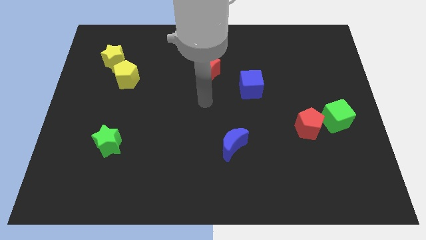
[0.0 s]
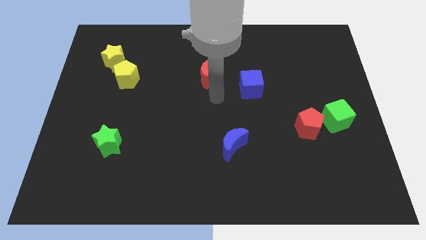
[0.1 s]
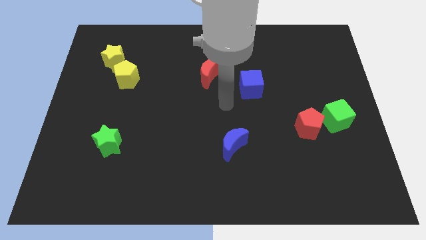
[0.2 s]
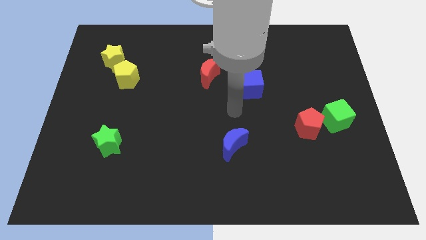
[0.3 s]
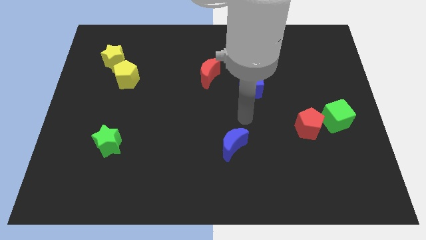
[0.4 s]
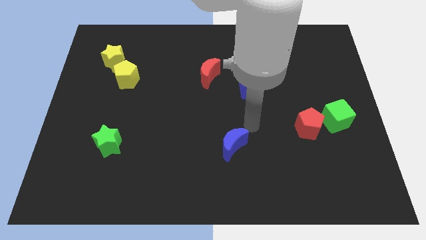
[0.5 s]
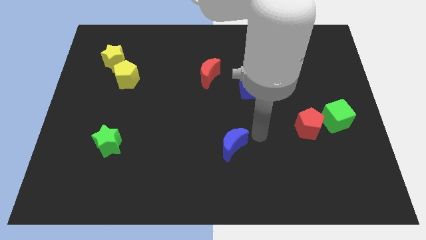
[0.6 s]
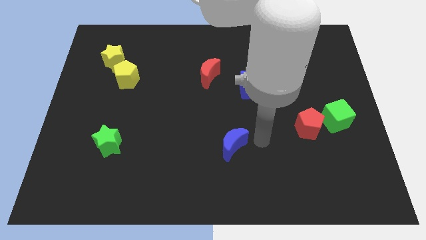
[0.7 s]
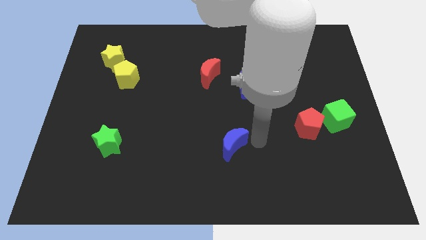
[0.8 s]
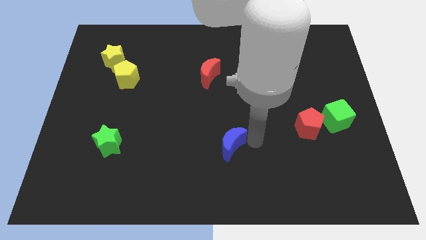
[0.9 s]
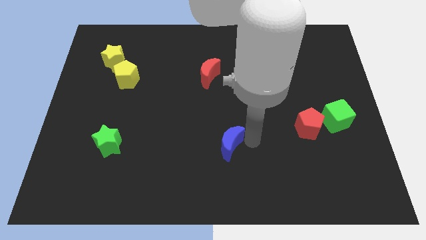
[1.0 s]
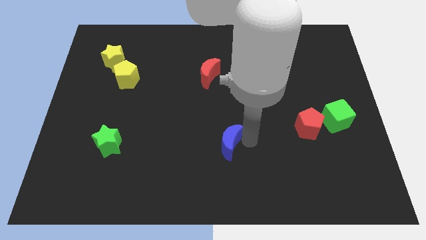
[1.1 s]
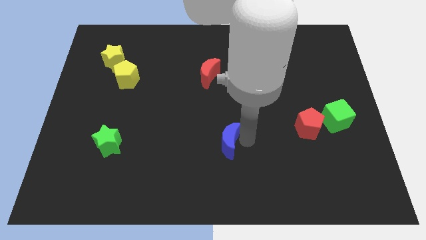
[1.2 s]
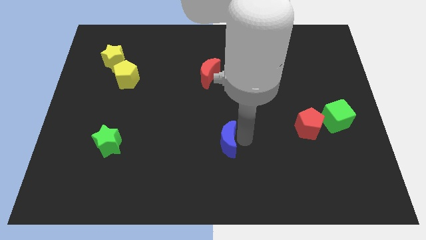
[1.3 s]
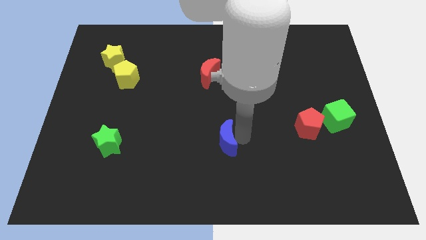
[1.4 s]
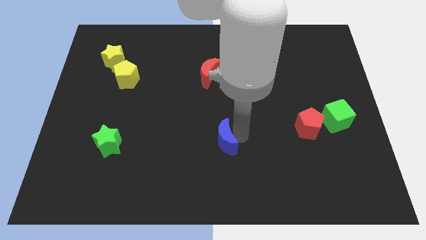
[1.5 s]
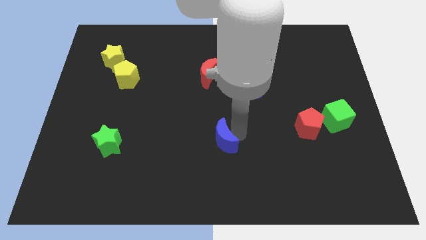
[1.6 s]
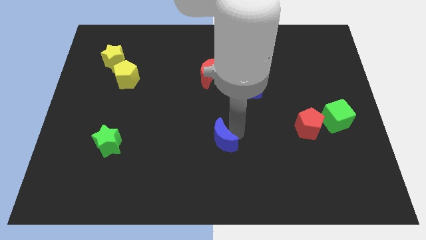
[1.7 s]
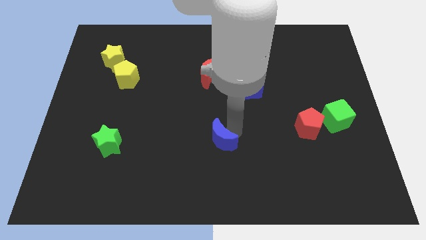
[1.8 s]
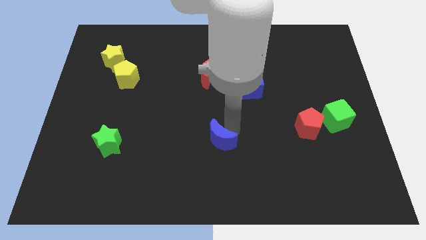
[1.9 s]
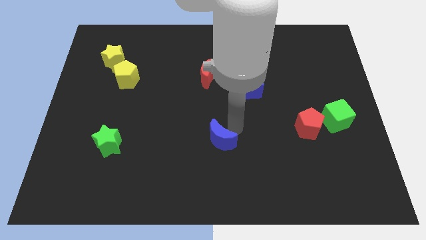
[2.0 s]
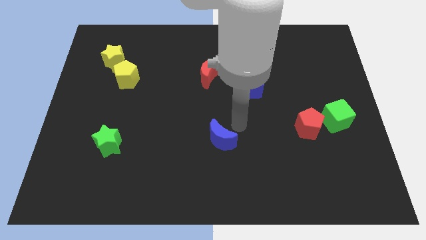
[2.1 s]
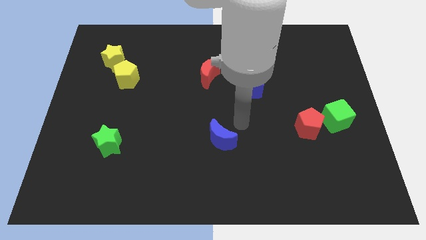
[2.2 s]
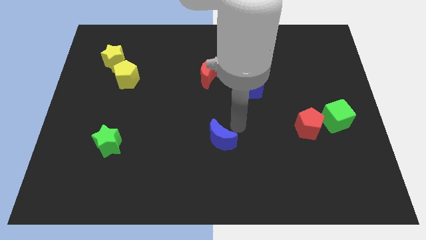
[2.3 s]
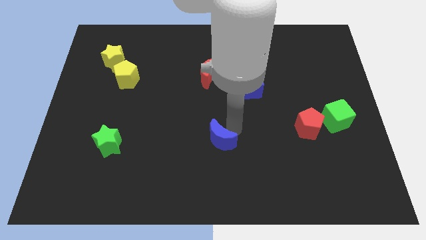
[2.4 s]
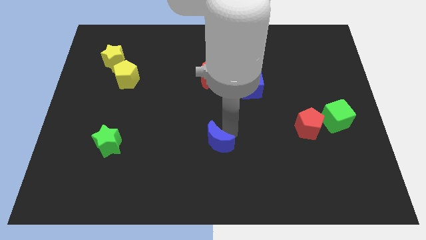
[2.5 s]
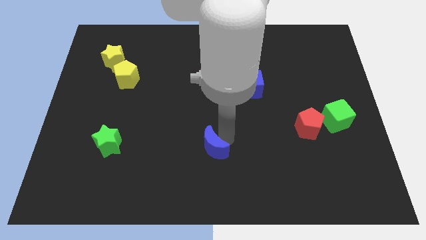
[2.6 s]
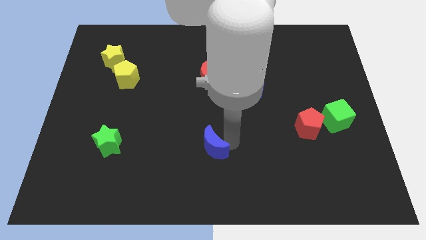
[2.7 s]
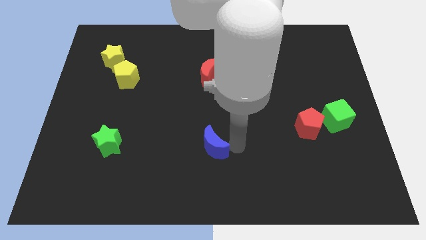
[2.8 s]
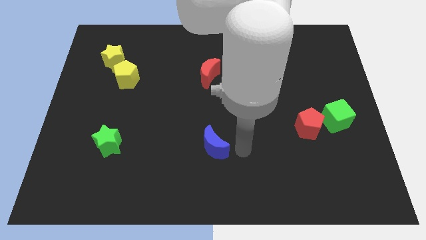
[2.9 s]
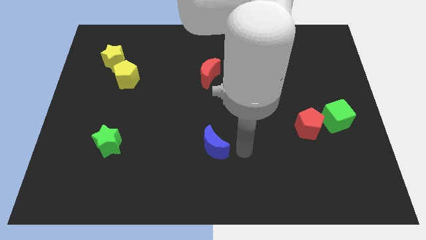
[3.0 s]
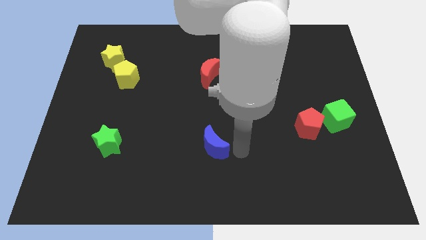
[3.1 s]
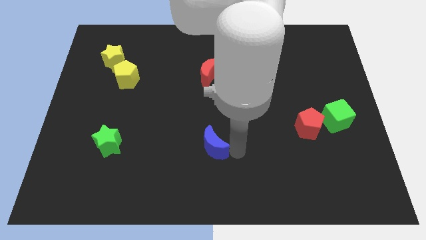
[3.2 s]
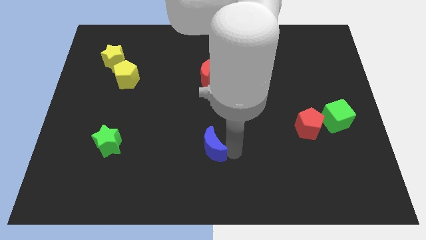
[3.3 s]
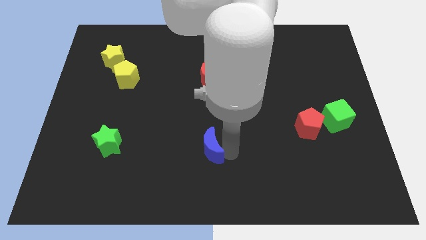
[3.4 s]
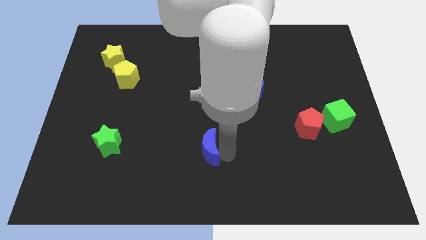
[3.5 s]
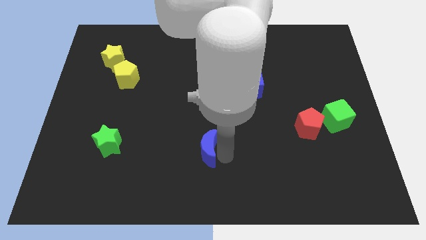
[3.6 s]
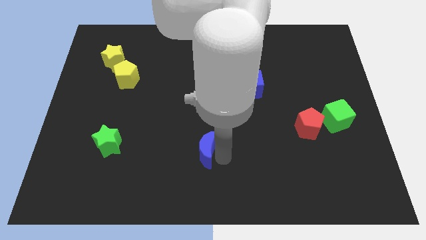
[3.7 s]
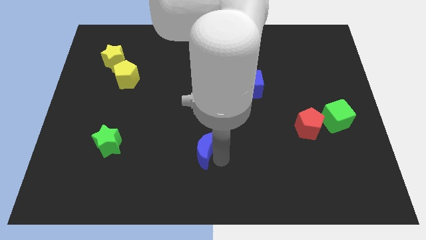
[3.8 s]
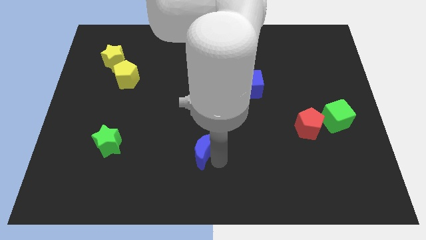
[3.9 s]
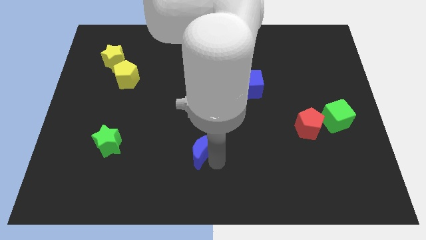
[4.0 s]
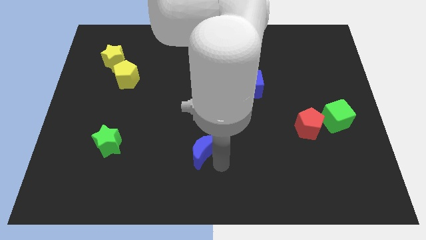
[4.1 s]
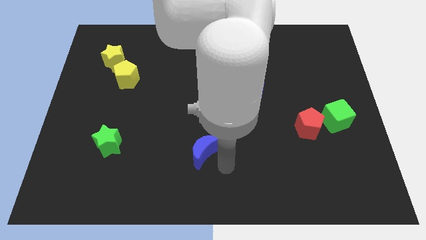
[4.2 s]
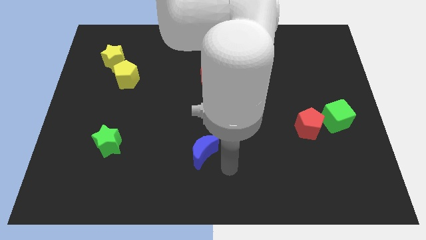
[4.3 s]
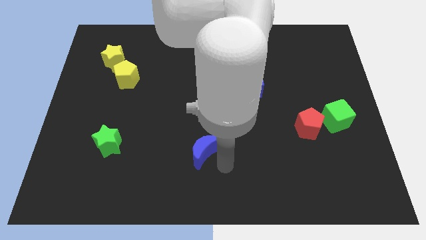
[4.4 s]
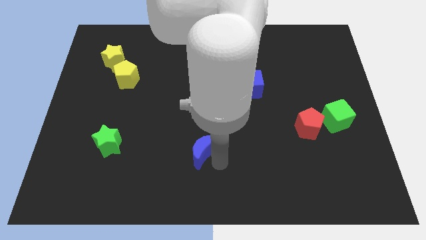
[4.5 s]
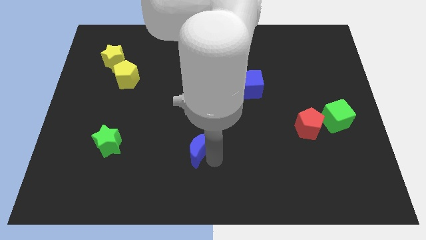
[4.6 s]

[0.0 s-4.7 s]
push the blue moon to the left a bit

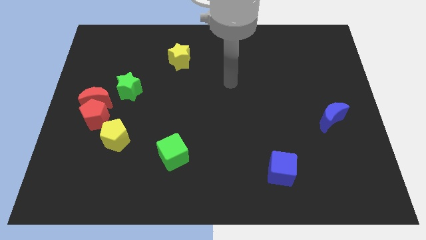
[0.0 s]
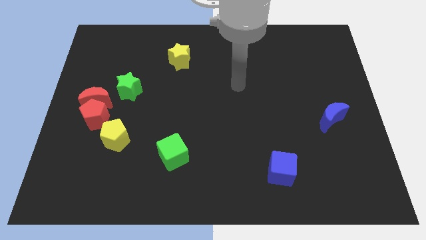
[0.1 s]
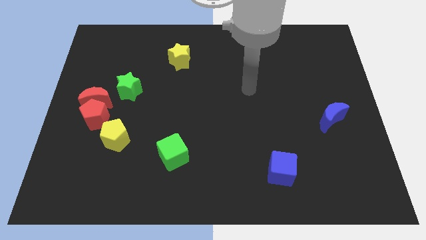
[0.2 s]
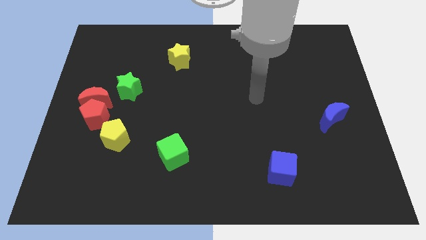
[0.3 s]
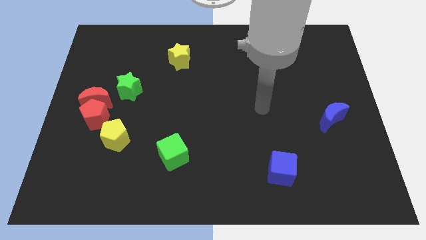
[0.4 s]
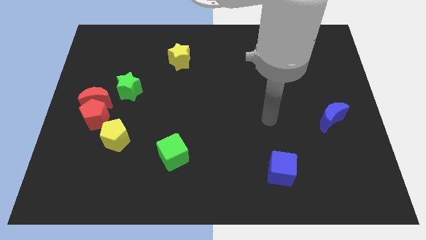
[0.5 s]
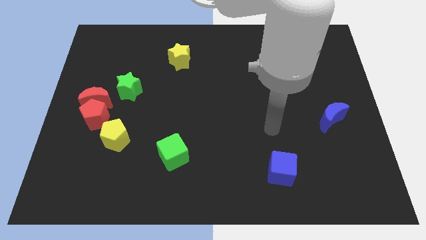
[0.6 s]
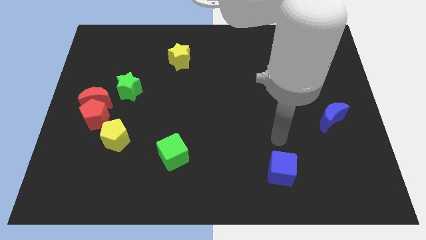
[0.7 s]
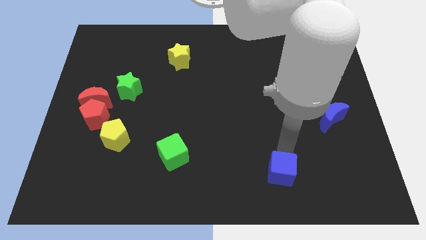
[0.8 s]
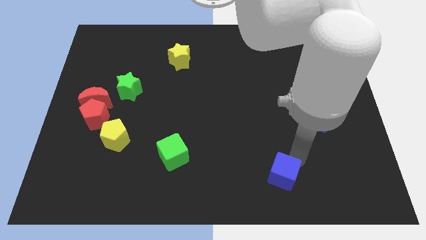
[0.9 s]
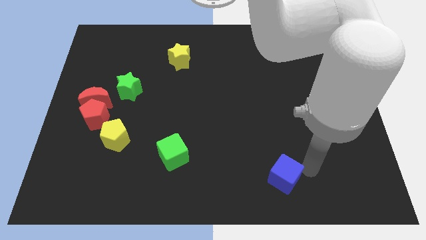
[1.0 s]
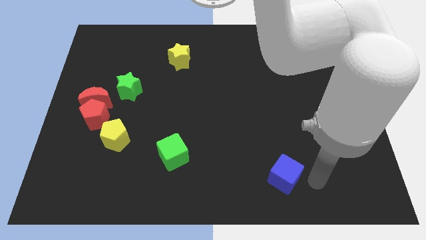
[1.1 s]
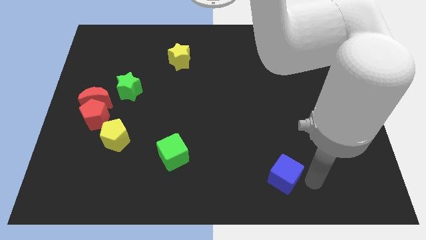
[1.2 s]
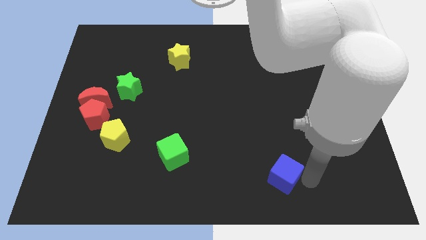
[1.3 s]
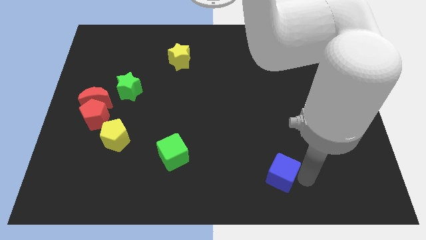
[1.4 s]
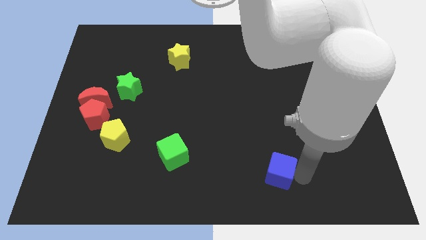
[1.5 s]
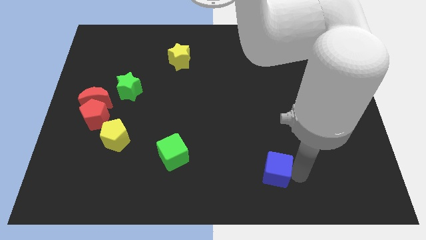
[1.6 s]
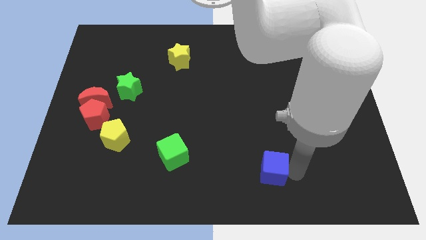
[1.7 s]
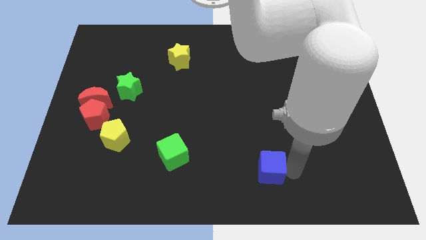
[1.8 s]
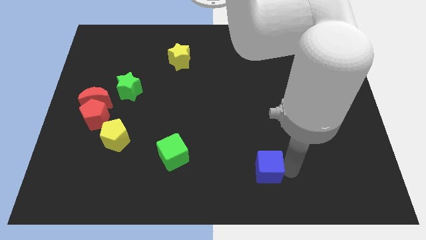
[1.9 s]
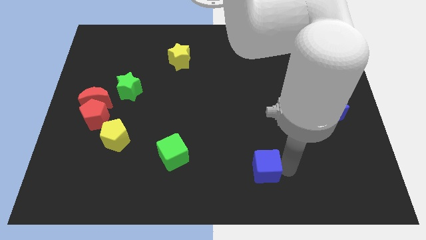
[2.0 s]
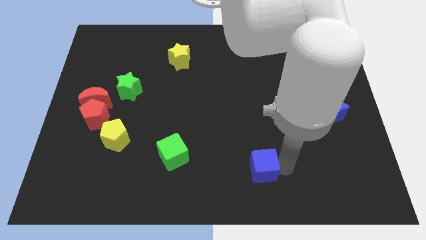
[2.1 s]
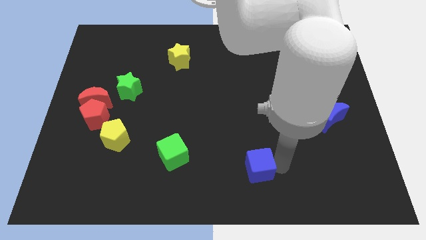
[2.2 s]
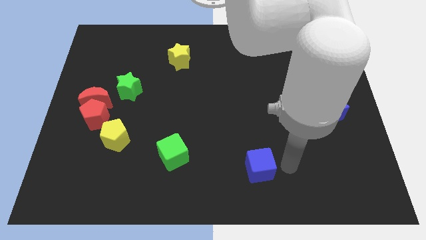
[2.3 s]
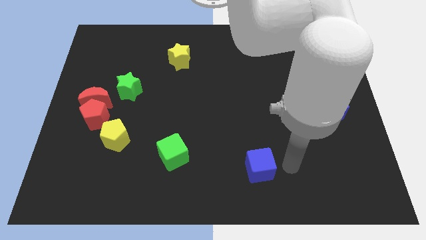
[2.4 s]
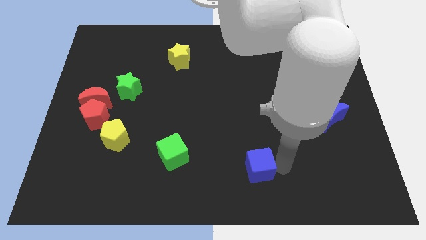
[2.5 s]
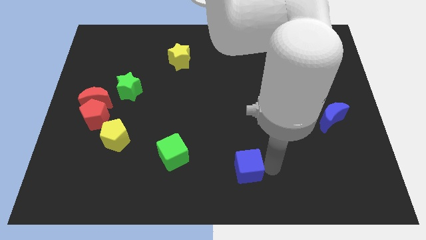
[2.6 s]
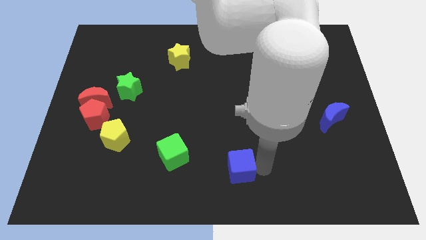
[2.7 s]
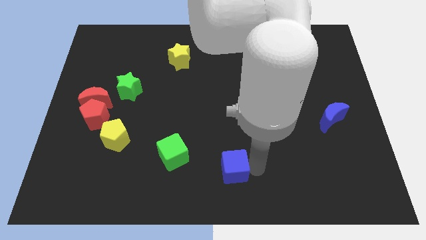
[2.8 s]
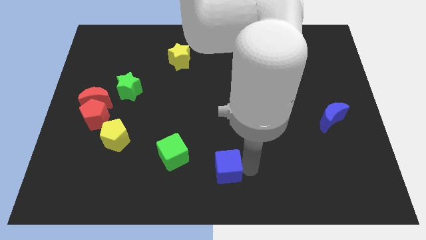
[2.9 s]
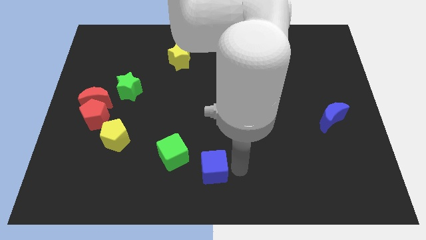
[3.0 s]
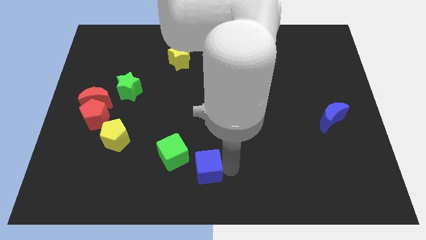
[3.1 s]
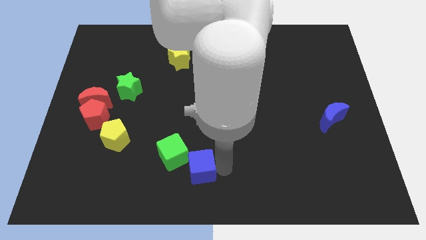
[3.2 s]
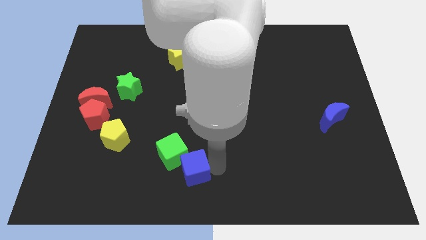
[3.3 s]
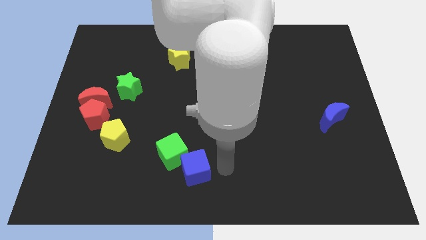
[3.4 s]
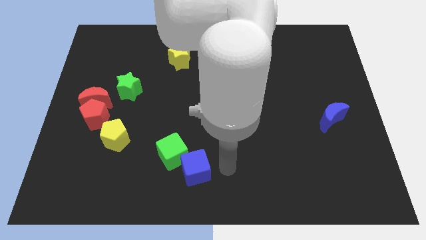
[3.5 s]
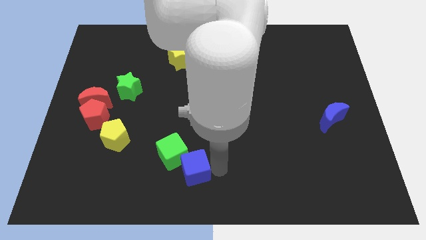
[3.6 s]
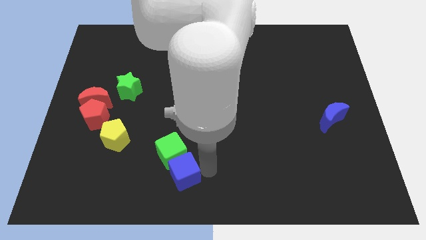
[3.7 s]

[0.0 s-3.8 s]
move the blue cube left
